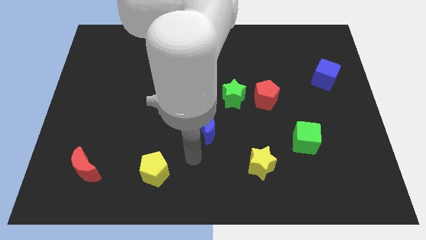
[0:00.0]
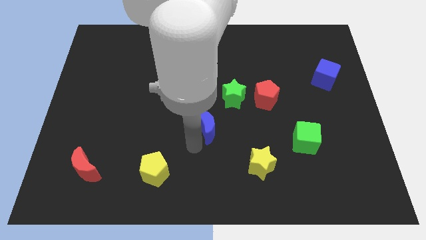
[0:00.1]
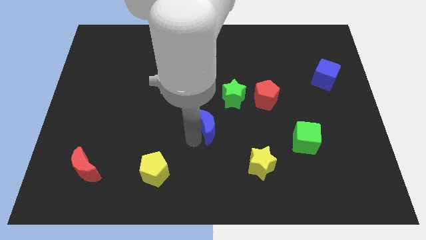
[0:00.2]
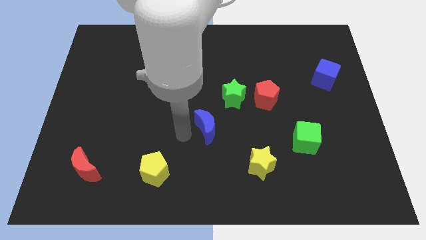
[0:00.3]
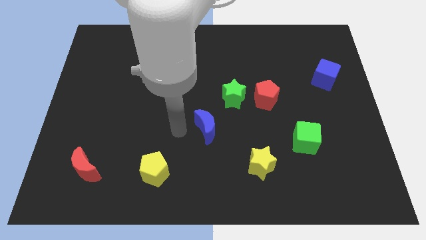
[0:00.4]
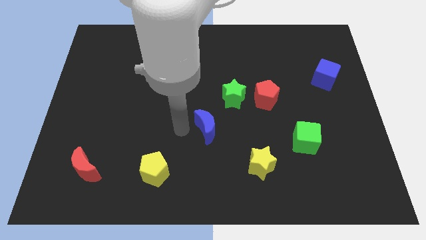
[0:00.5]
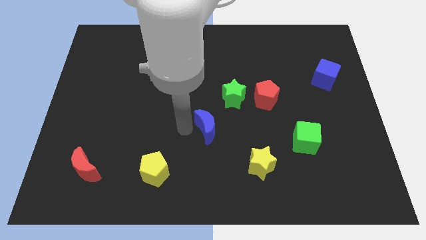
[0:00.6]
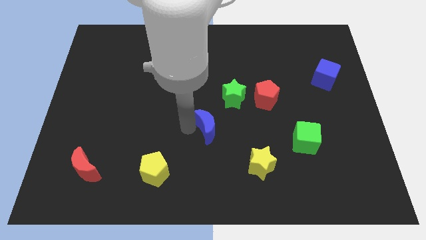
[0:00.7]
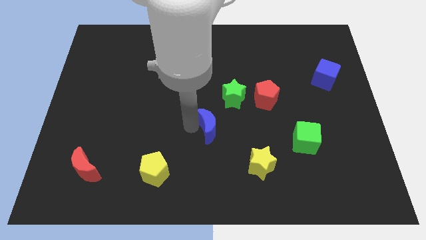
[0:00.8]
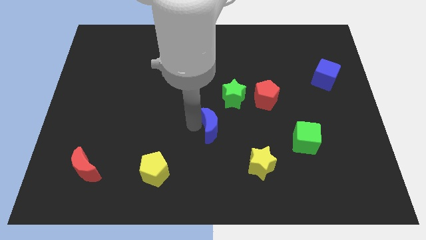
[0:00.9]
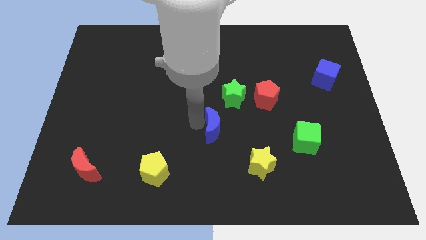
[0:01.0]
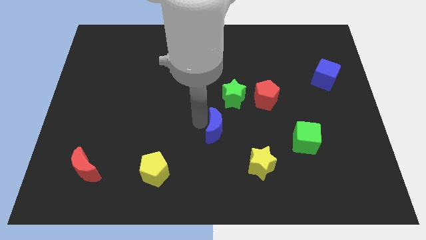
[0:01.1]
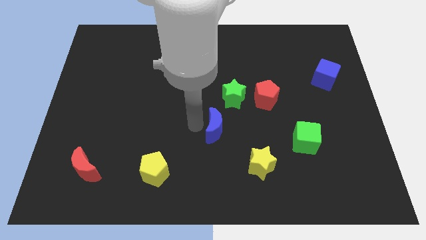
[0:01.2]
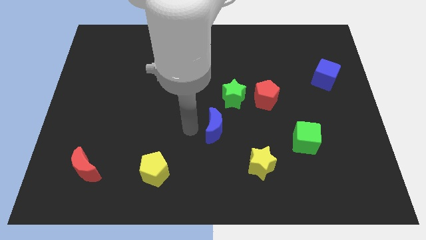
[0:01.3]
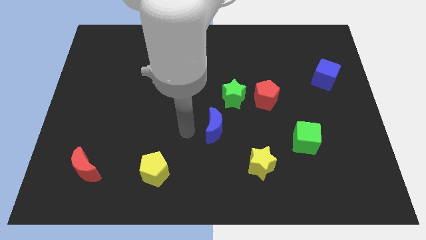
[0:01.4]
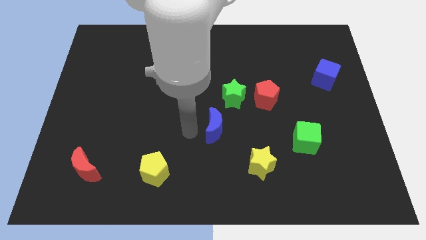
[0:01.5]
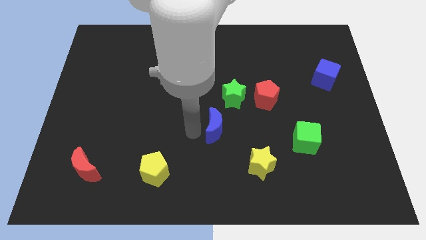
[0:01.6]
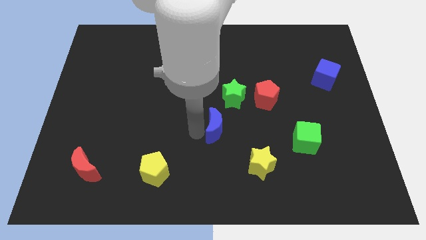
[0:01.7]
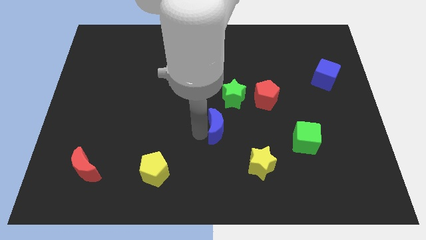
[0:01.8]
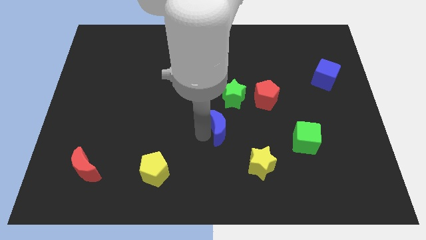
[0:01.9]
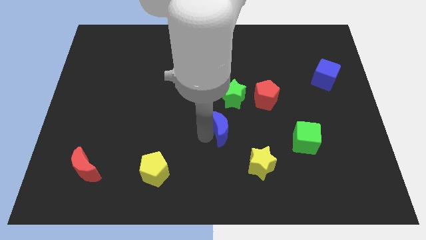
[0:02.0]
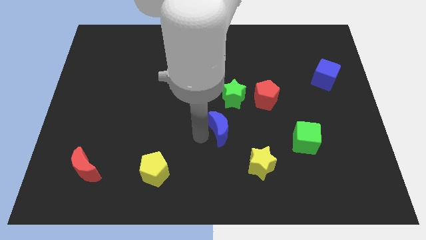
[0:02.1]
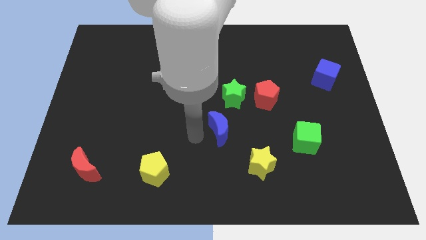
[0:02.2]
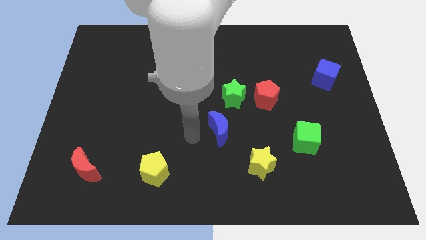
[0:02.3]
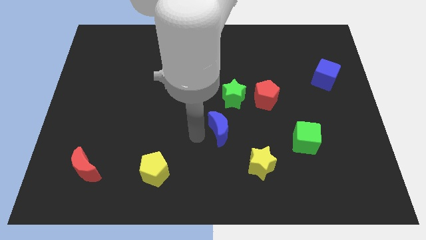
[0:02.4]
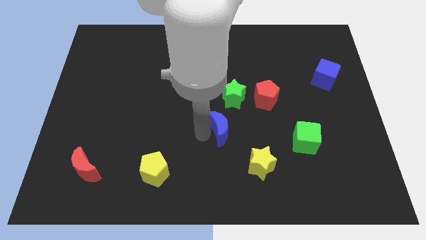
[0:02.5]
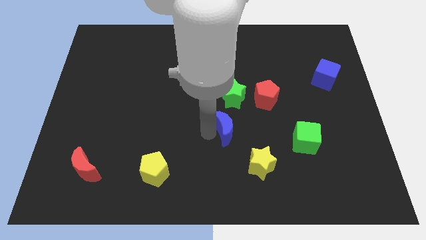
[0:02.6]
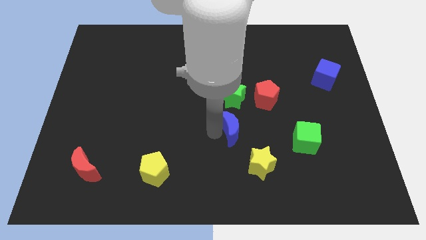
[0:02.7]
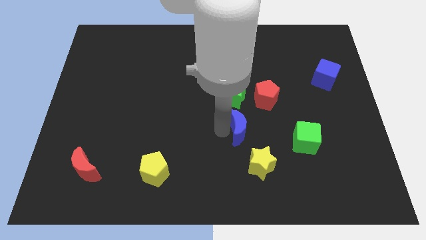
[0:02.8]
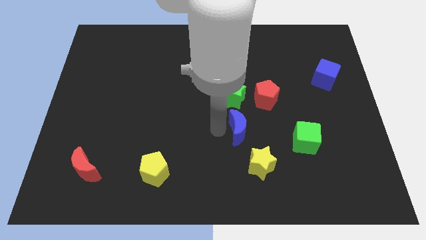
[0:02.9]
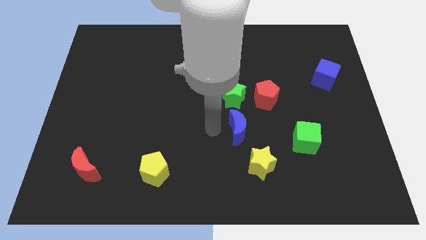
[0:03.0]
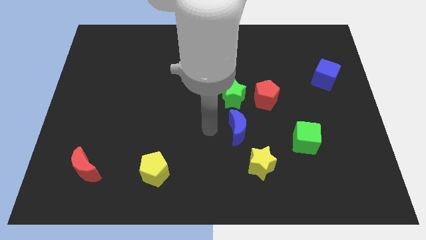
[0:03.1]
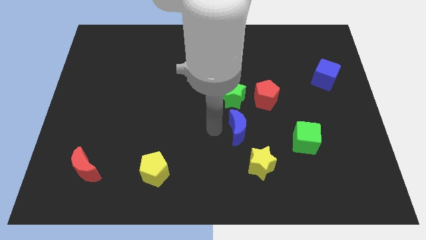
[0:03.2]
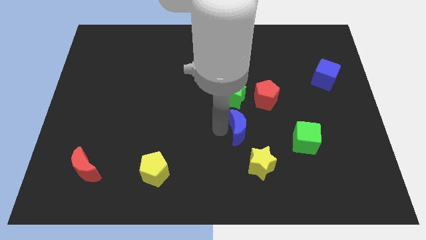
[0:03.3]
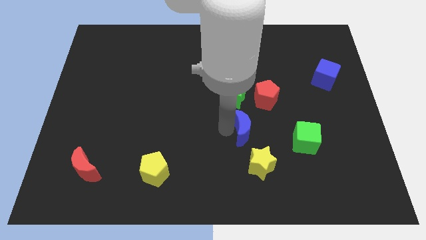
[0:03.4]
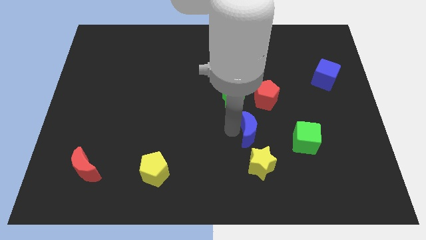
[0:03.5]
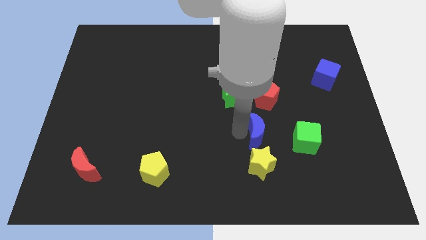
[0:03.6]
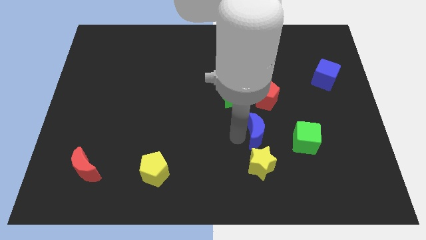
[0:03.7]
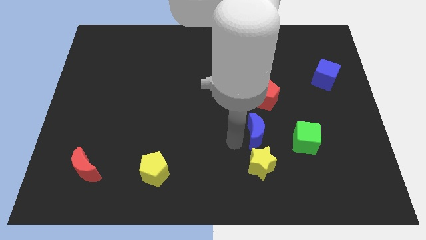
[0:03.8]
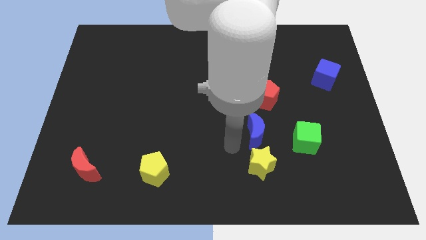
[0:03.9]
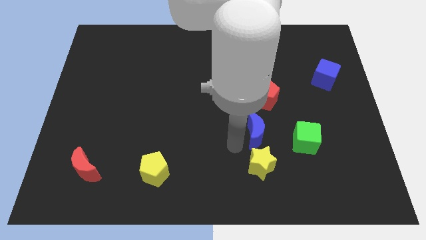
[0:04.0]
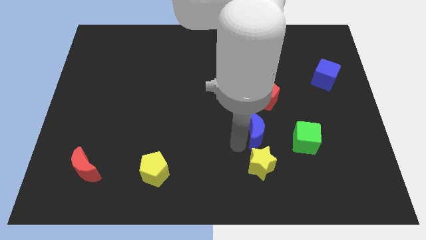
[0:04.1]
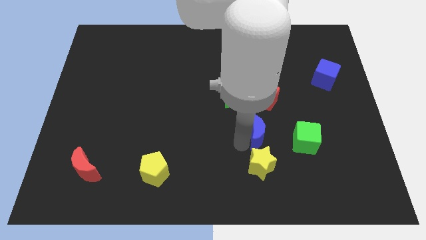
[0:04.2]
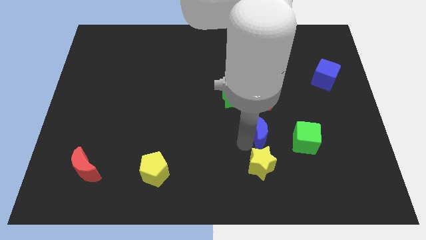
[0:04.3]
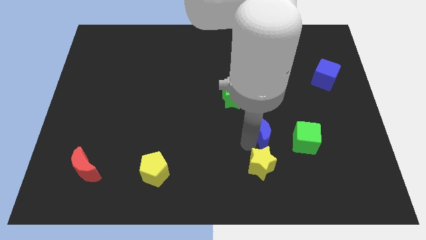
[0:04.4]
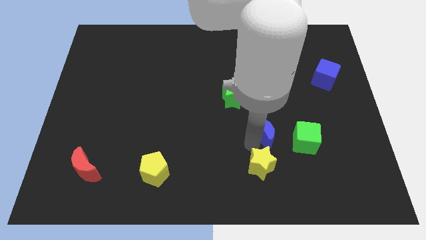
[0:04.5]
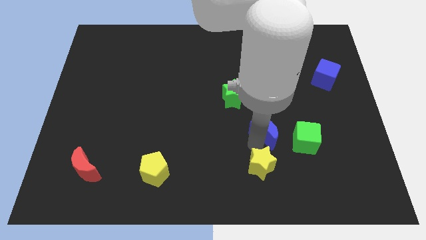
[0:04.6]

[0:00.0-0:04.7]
move the blue moon to the top left of the green cube

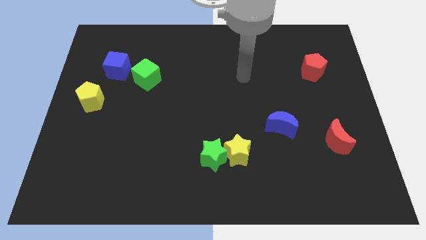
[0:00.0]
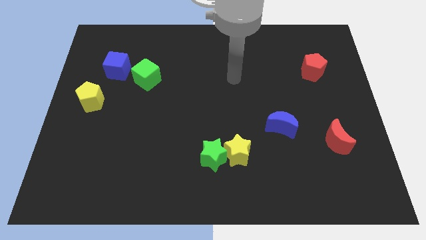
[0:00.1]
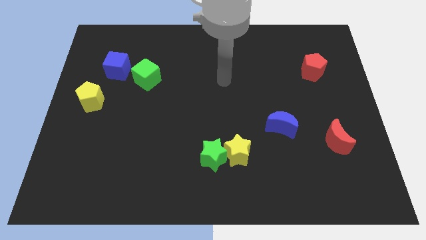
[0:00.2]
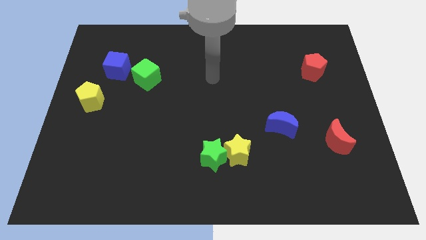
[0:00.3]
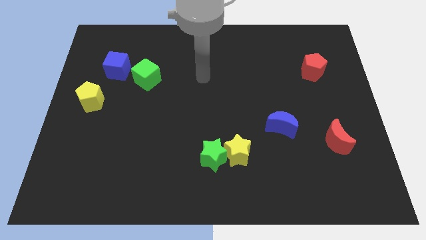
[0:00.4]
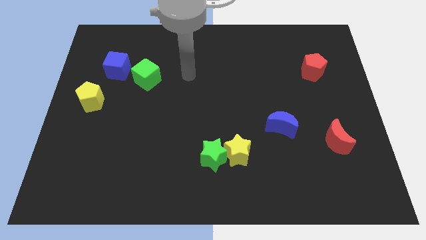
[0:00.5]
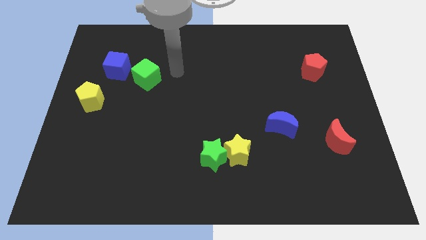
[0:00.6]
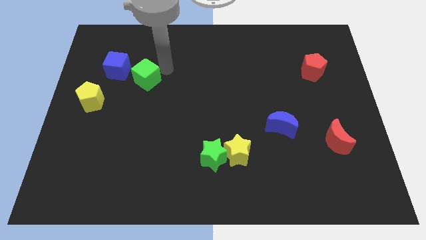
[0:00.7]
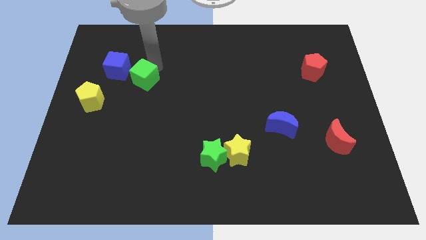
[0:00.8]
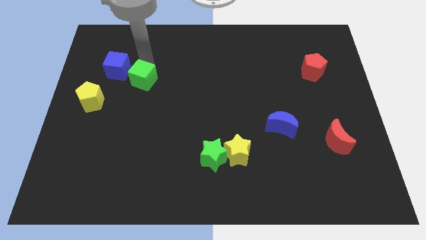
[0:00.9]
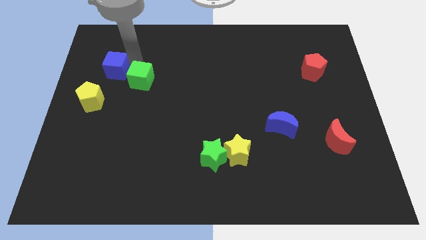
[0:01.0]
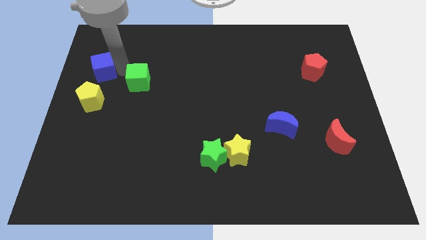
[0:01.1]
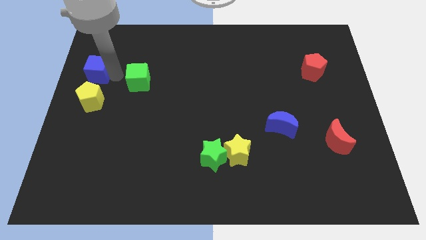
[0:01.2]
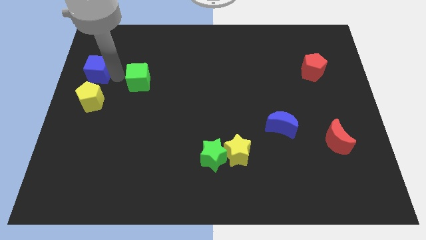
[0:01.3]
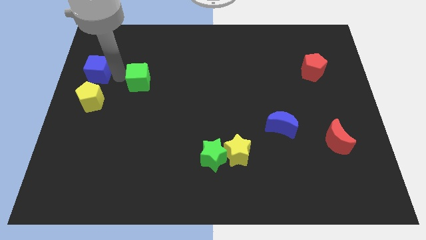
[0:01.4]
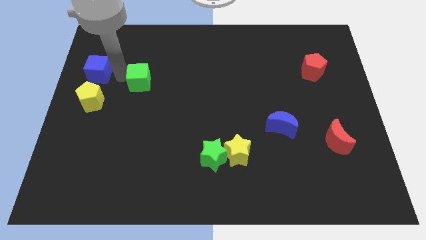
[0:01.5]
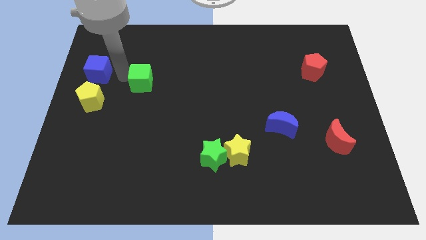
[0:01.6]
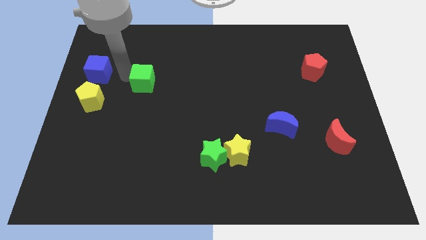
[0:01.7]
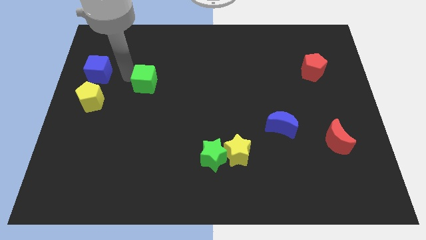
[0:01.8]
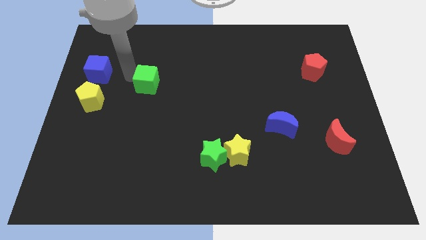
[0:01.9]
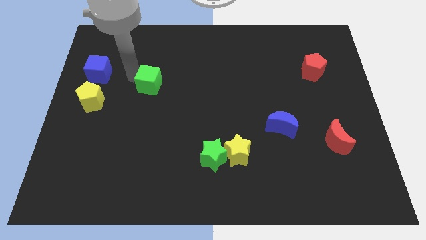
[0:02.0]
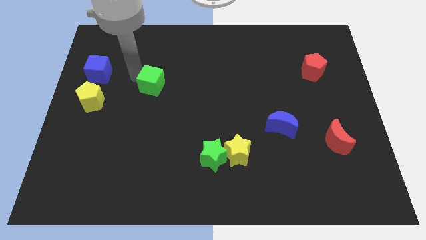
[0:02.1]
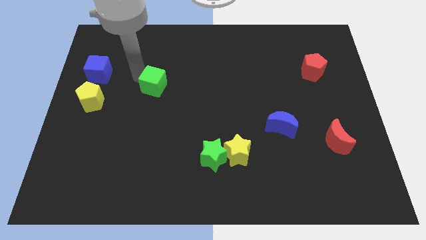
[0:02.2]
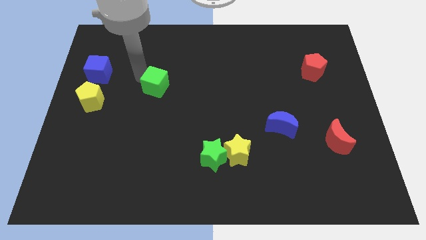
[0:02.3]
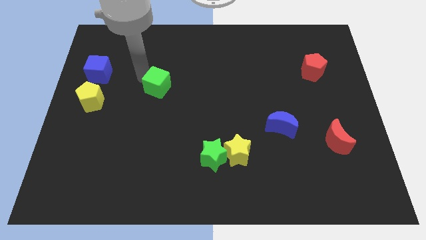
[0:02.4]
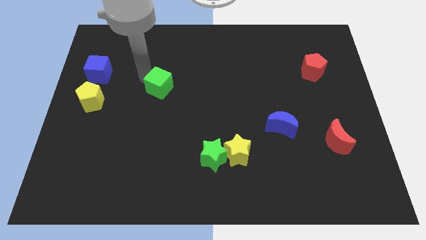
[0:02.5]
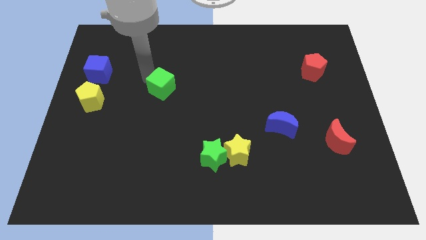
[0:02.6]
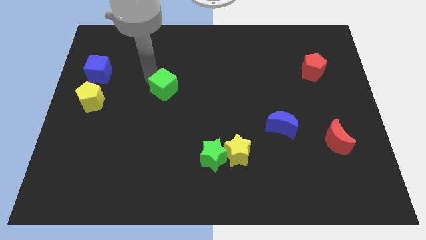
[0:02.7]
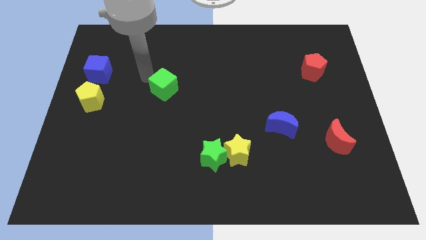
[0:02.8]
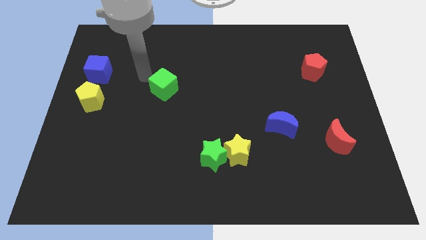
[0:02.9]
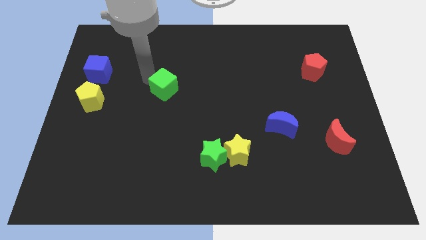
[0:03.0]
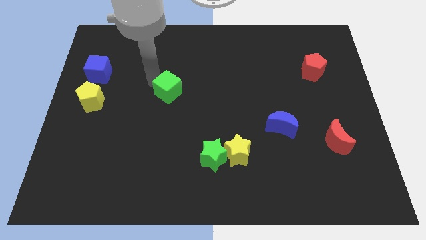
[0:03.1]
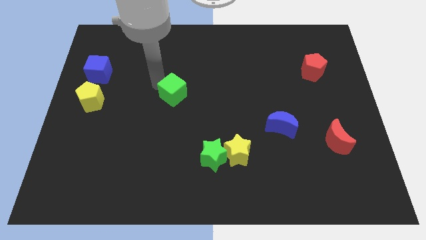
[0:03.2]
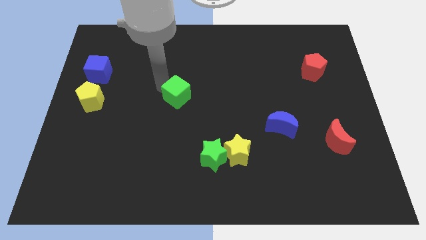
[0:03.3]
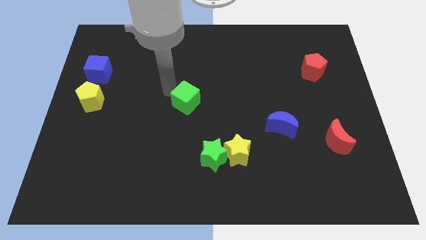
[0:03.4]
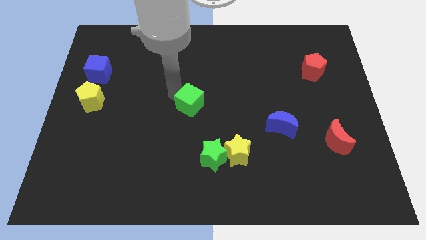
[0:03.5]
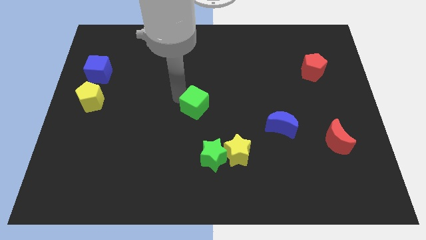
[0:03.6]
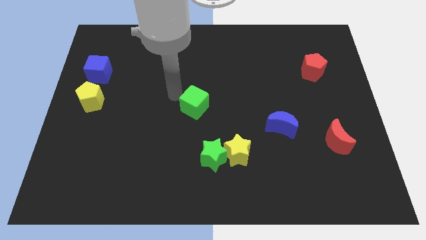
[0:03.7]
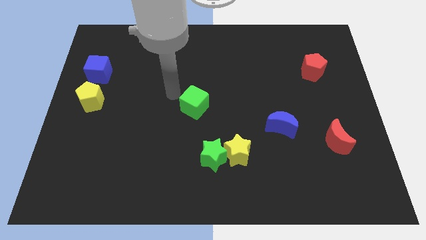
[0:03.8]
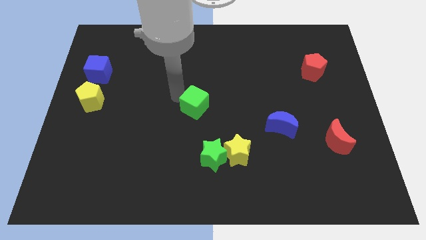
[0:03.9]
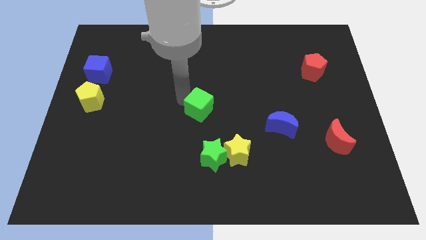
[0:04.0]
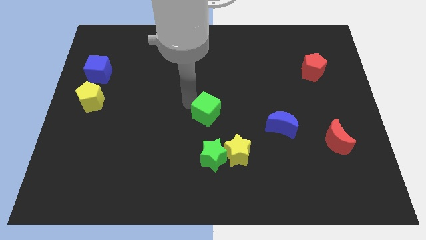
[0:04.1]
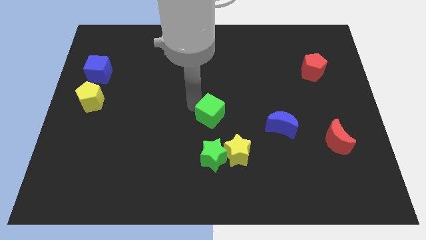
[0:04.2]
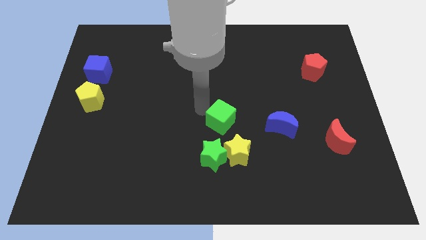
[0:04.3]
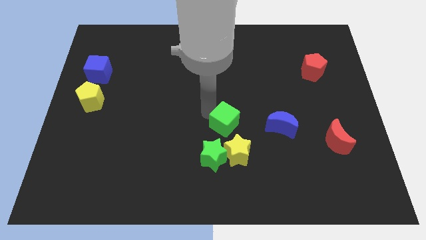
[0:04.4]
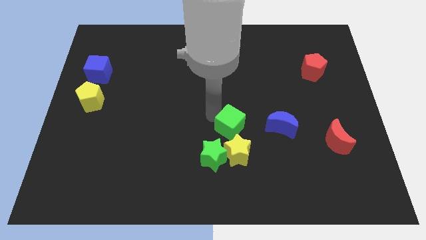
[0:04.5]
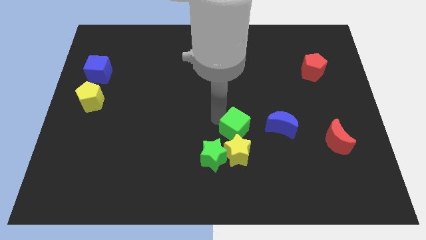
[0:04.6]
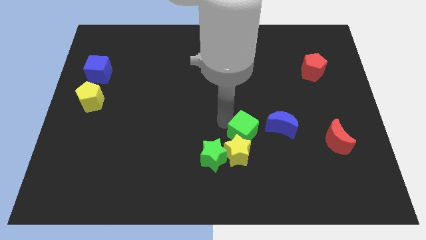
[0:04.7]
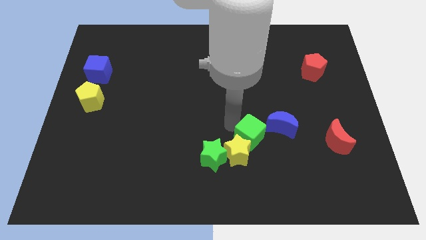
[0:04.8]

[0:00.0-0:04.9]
push the green cube to the bottom left of the blue moon
